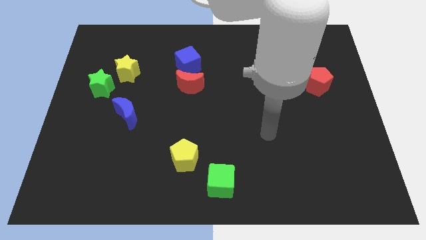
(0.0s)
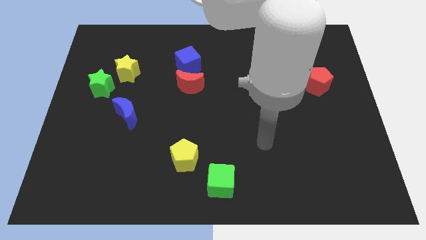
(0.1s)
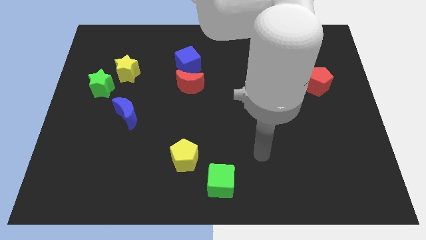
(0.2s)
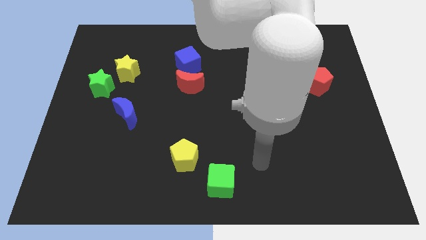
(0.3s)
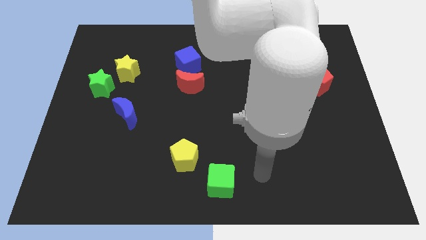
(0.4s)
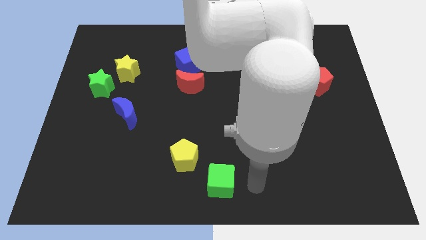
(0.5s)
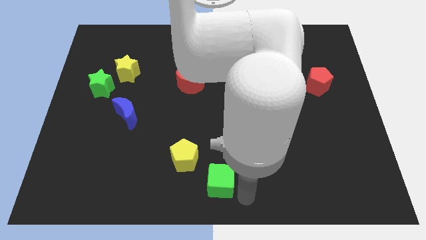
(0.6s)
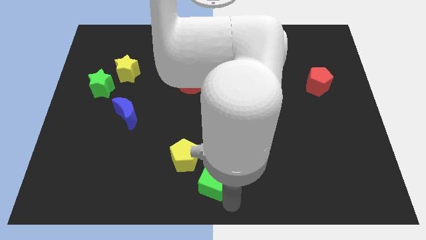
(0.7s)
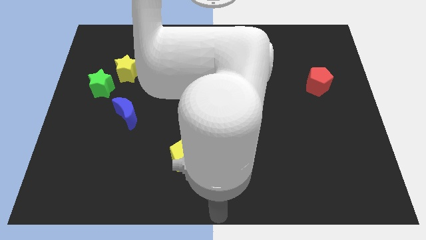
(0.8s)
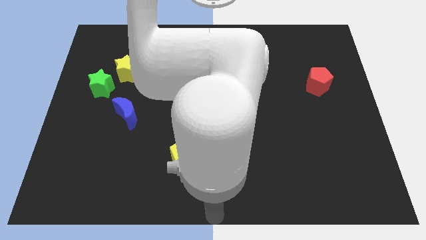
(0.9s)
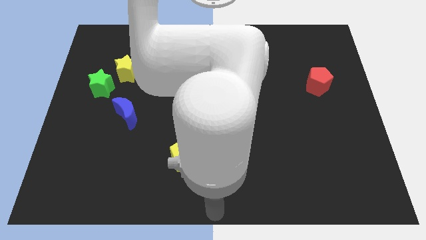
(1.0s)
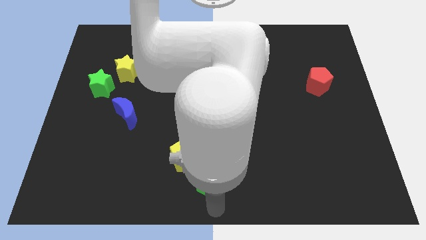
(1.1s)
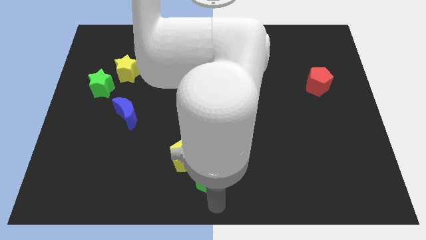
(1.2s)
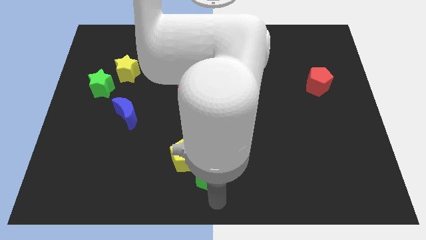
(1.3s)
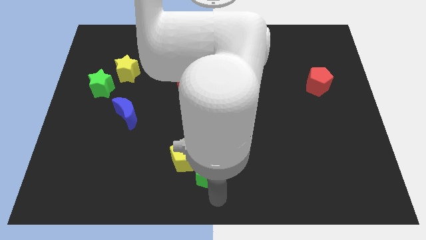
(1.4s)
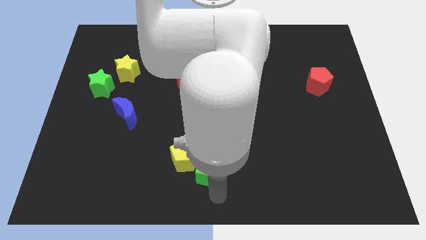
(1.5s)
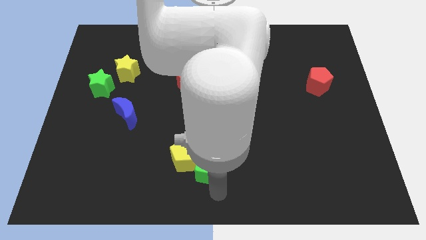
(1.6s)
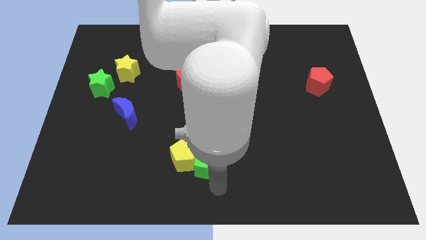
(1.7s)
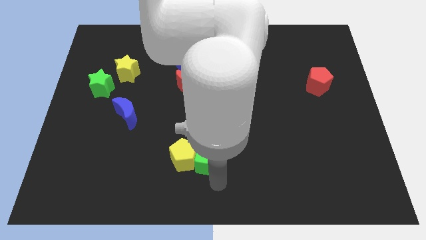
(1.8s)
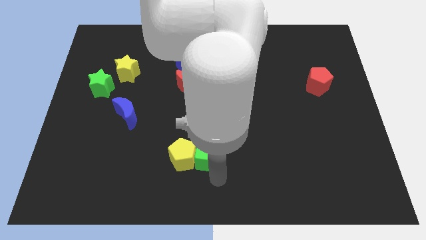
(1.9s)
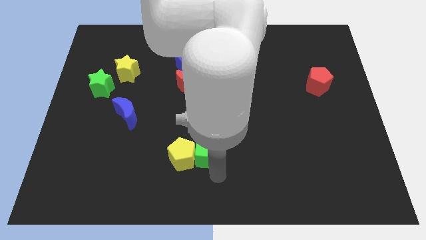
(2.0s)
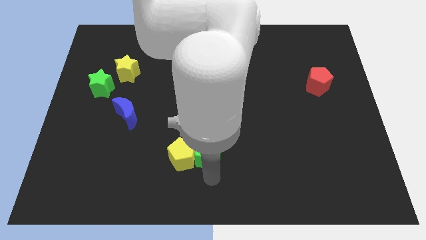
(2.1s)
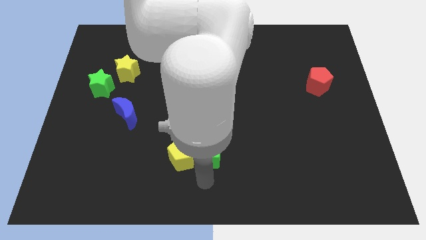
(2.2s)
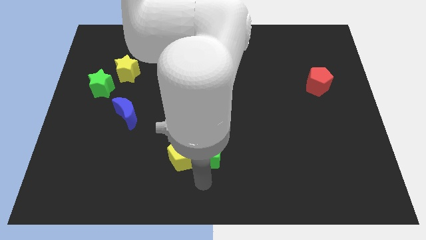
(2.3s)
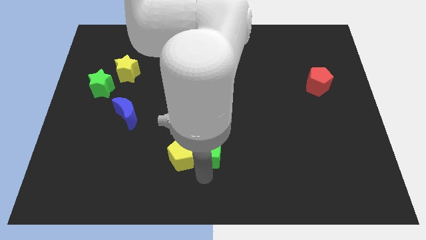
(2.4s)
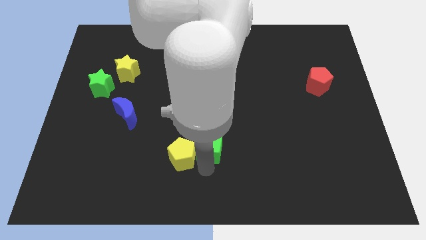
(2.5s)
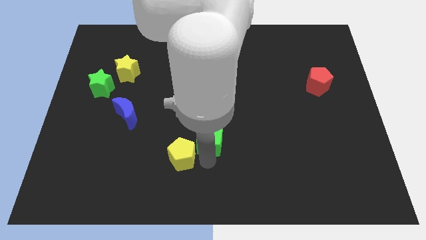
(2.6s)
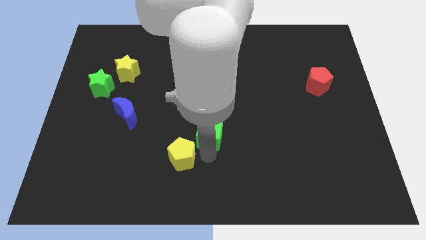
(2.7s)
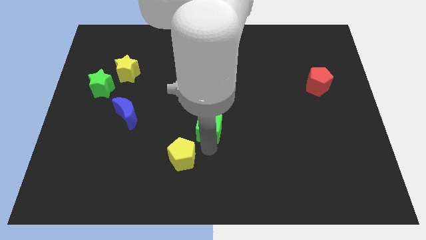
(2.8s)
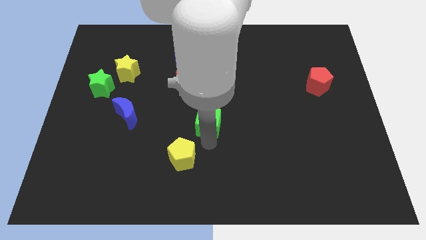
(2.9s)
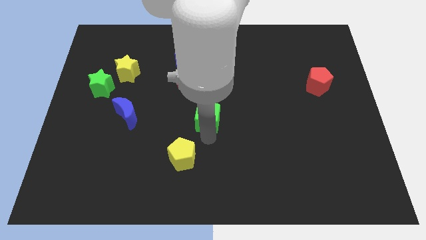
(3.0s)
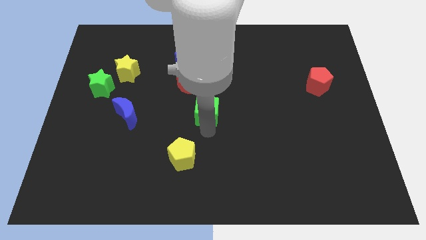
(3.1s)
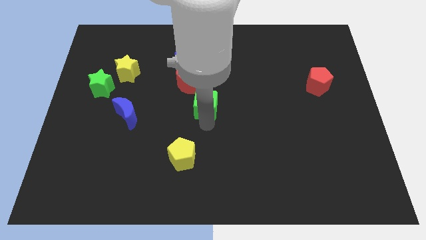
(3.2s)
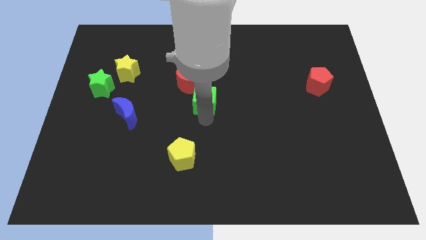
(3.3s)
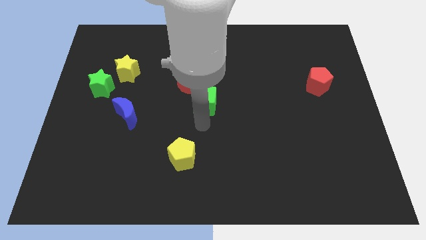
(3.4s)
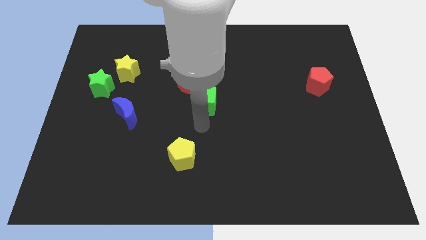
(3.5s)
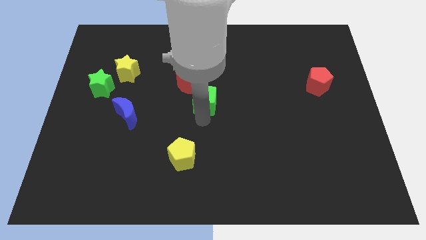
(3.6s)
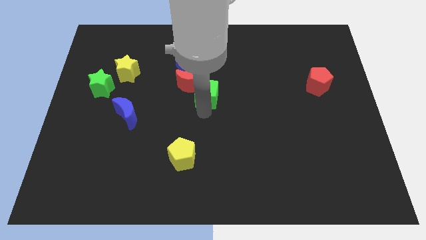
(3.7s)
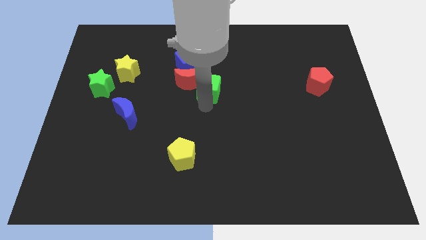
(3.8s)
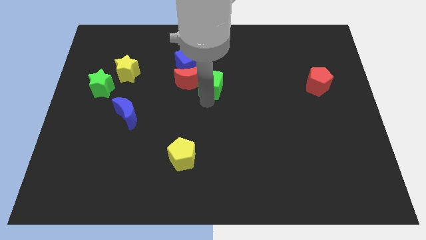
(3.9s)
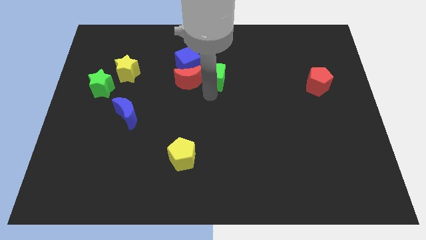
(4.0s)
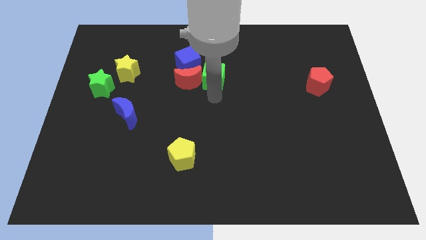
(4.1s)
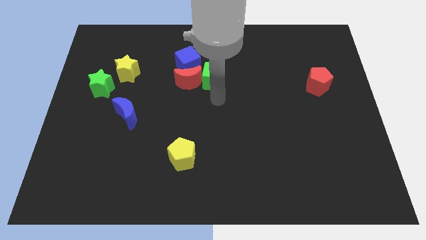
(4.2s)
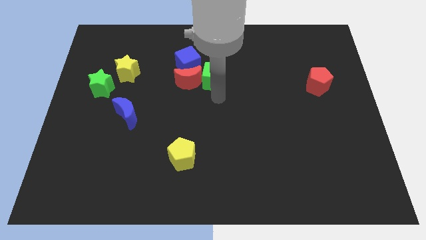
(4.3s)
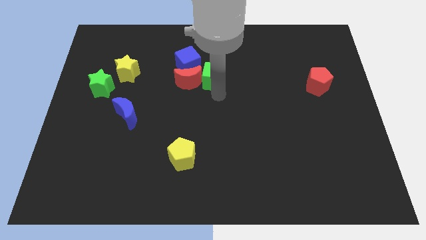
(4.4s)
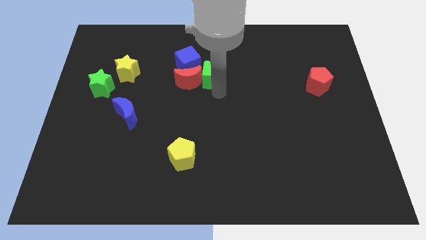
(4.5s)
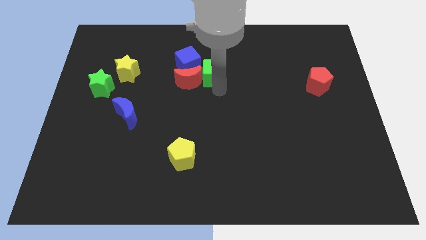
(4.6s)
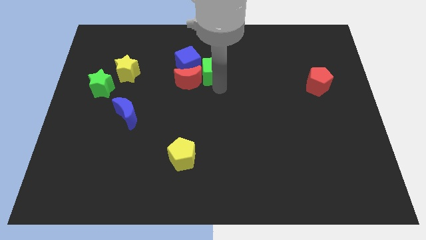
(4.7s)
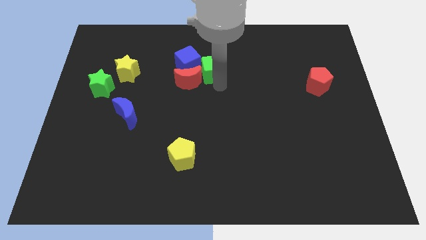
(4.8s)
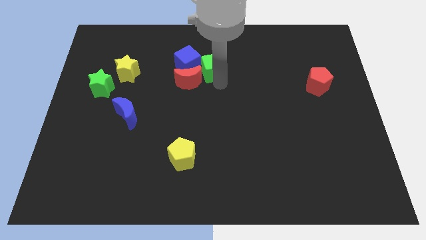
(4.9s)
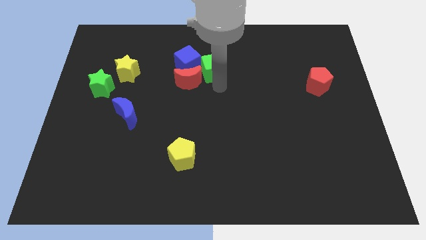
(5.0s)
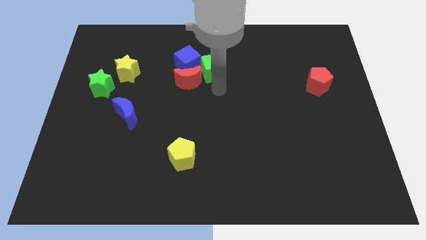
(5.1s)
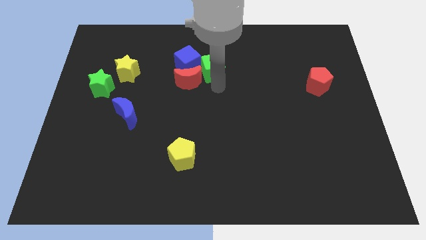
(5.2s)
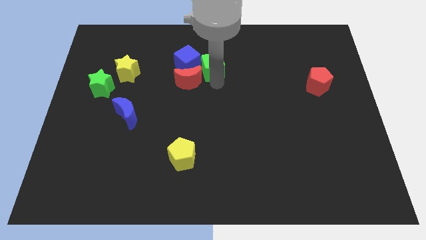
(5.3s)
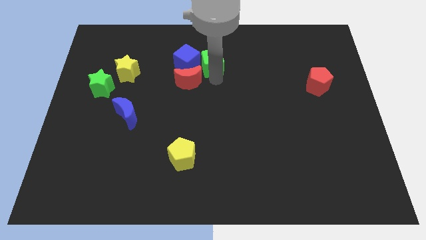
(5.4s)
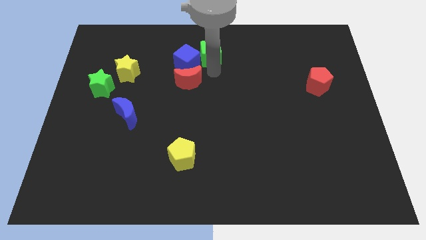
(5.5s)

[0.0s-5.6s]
move the green cube to the top

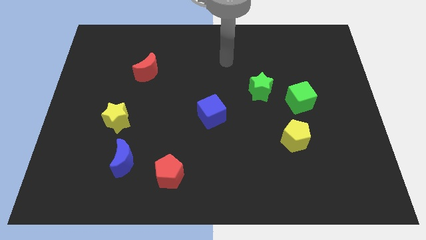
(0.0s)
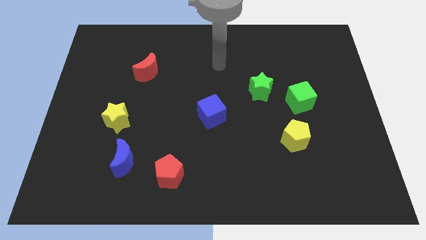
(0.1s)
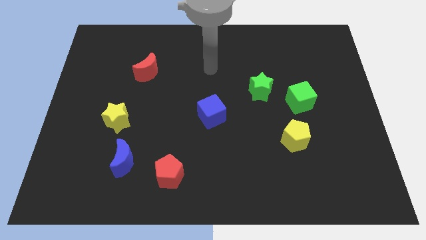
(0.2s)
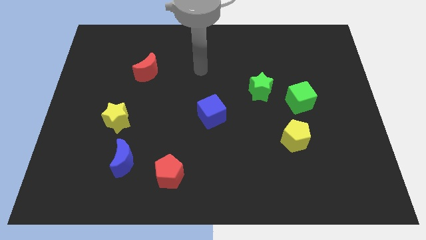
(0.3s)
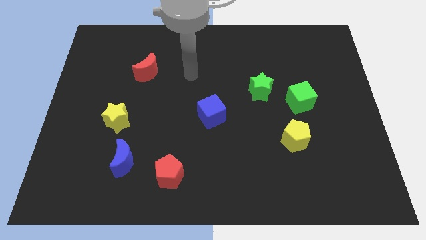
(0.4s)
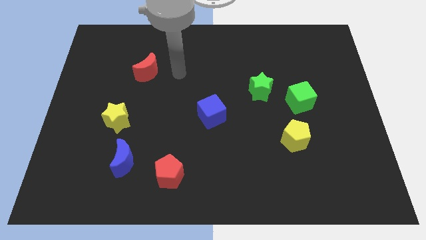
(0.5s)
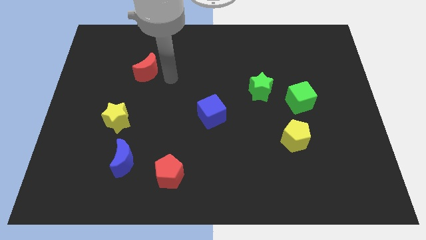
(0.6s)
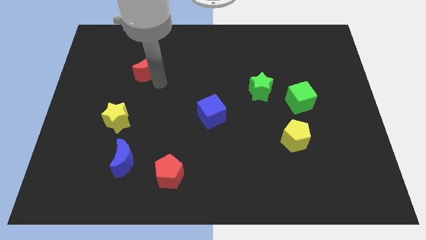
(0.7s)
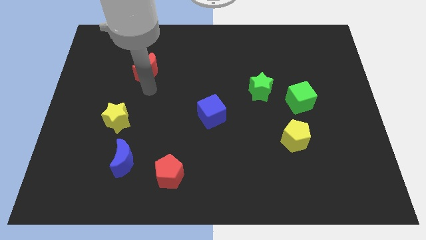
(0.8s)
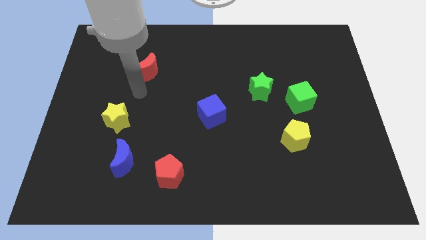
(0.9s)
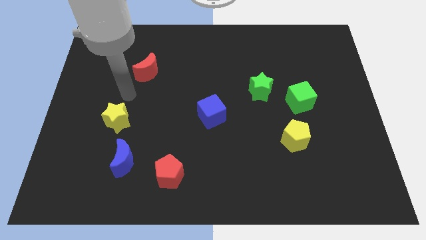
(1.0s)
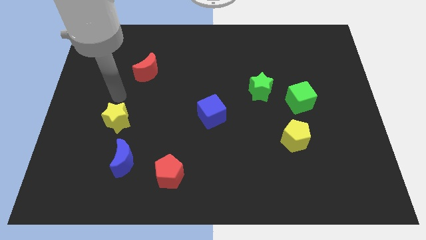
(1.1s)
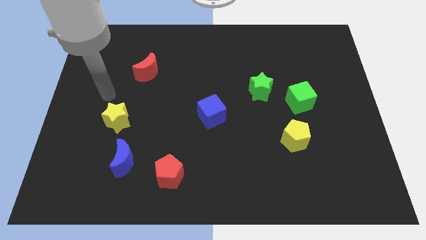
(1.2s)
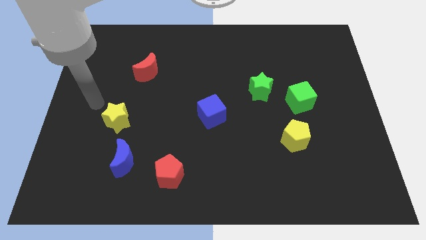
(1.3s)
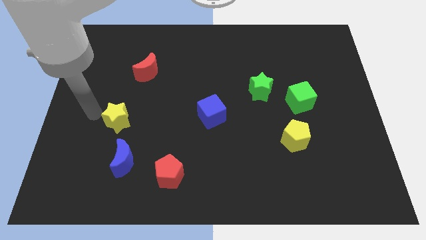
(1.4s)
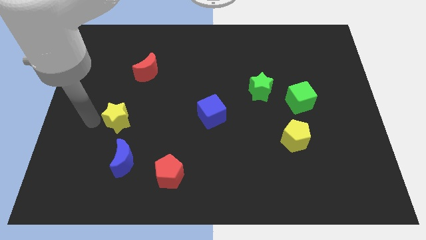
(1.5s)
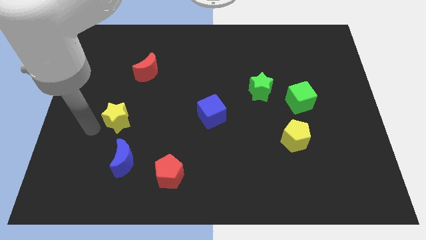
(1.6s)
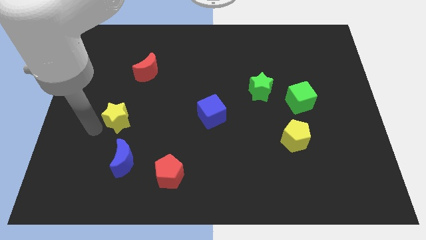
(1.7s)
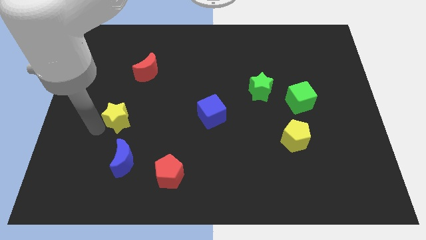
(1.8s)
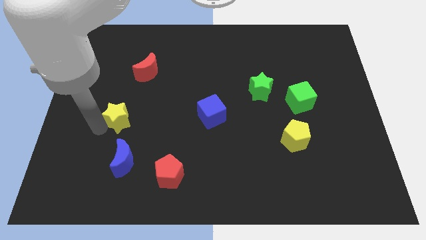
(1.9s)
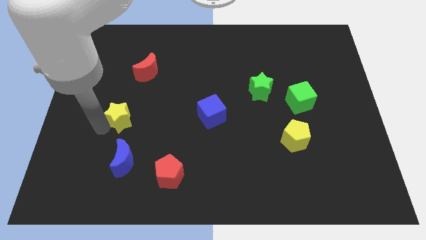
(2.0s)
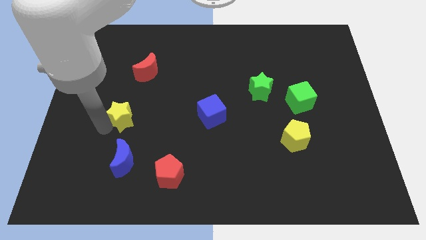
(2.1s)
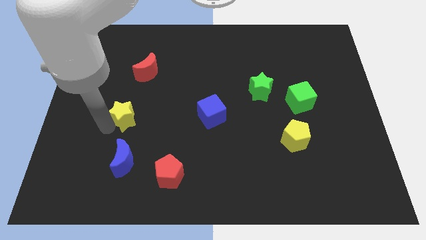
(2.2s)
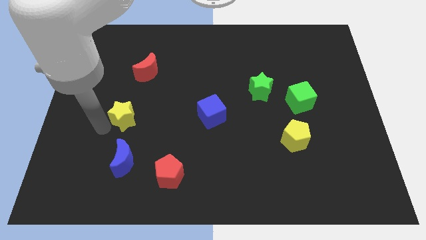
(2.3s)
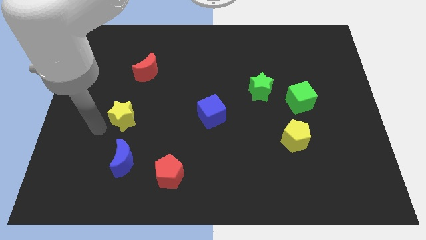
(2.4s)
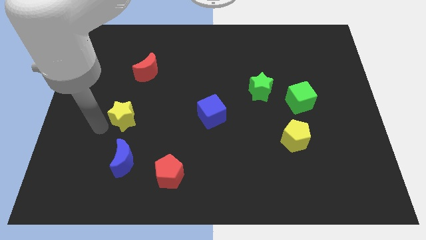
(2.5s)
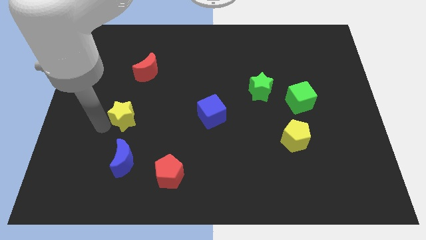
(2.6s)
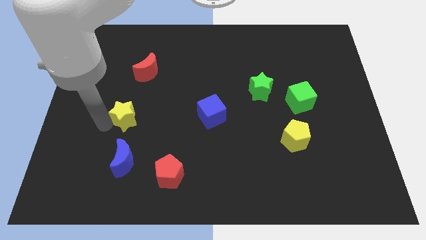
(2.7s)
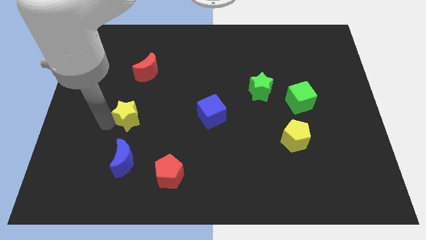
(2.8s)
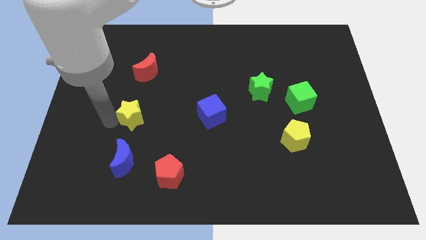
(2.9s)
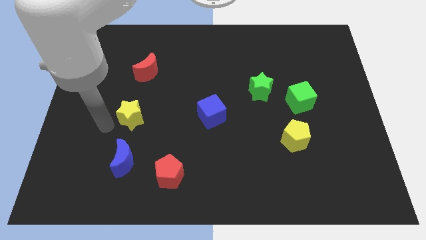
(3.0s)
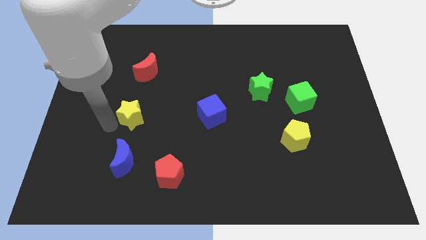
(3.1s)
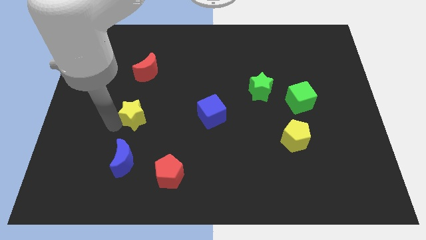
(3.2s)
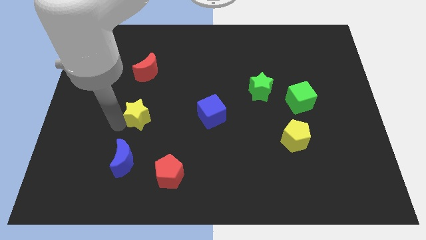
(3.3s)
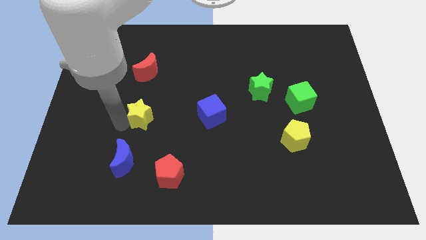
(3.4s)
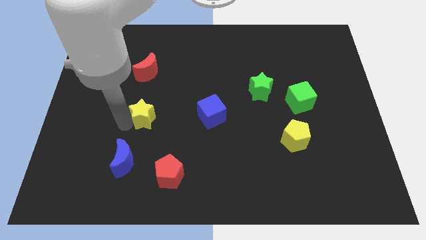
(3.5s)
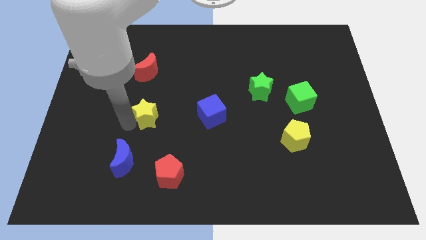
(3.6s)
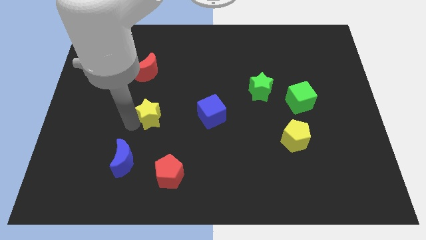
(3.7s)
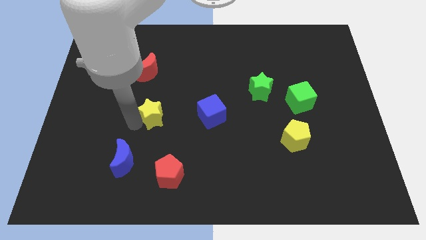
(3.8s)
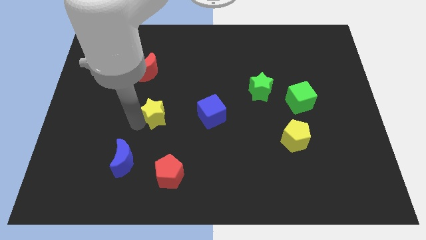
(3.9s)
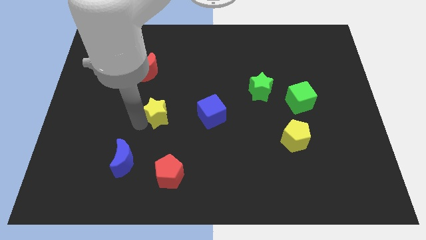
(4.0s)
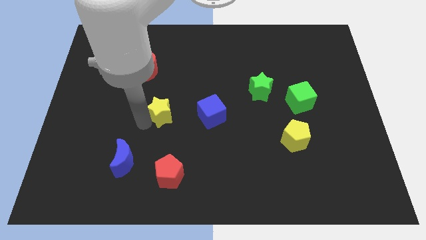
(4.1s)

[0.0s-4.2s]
move the yellow star to the center
